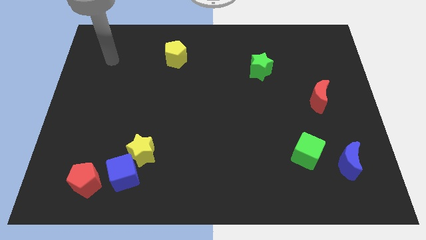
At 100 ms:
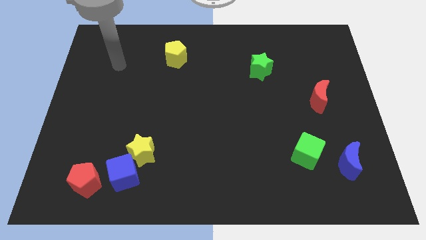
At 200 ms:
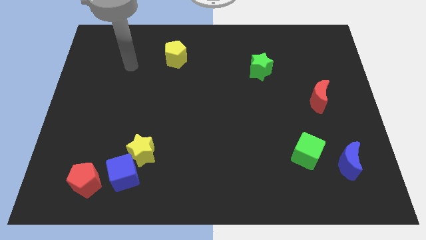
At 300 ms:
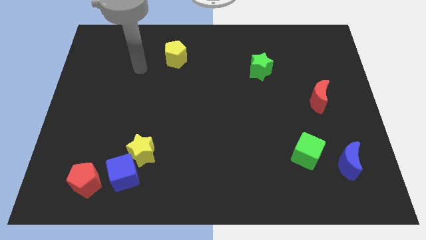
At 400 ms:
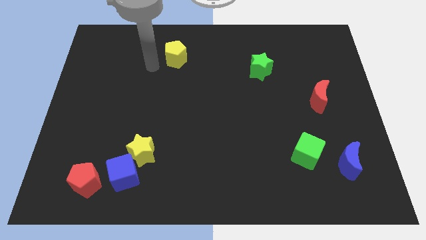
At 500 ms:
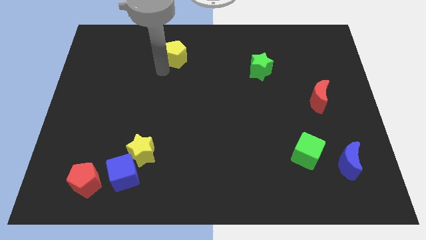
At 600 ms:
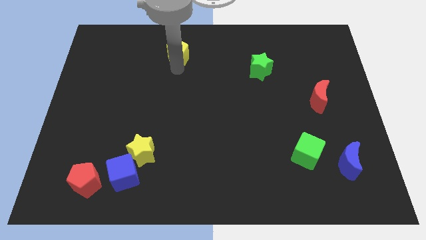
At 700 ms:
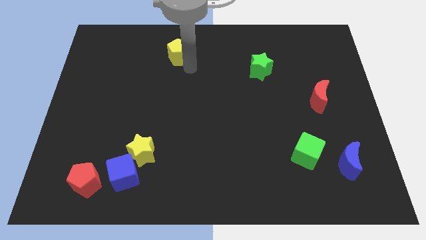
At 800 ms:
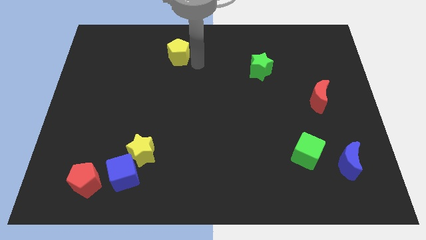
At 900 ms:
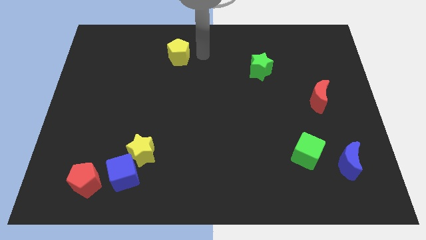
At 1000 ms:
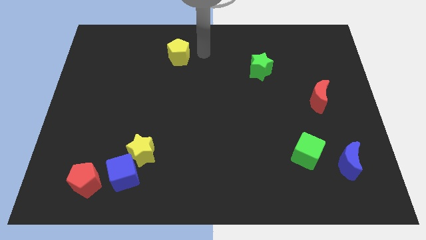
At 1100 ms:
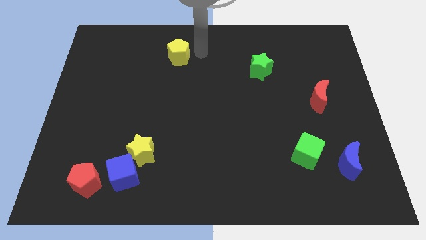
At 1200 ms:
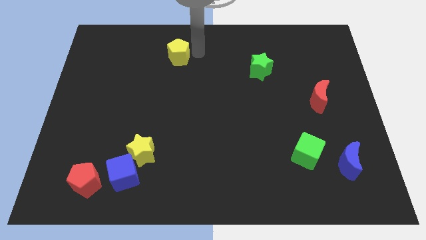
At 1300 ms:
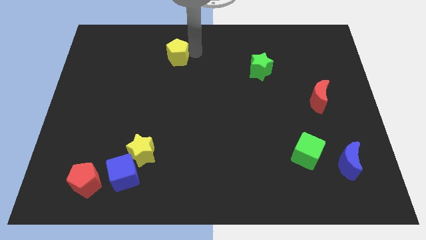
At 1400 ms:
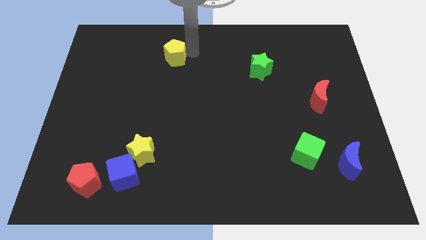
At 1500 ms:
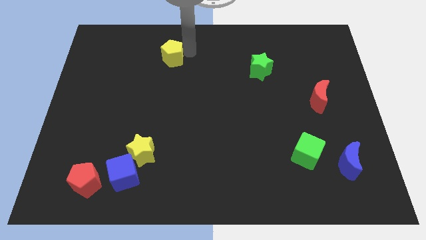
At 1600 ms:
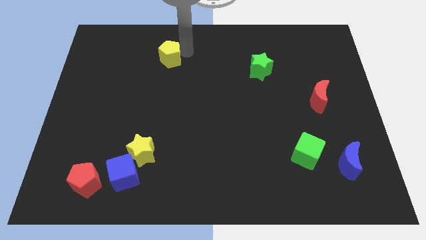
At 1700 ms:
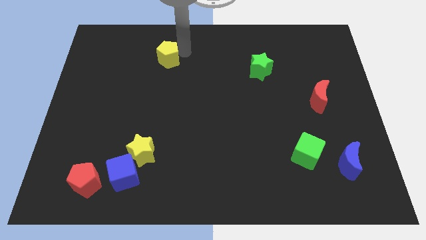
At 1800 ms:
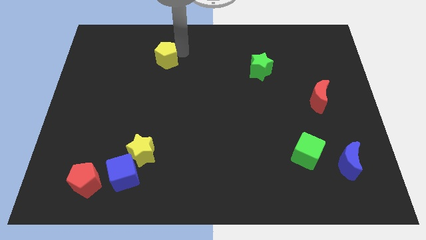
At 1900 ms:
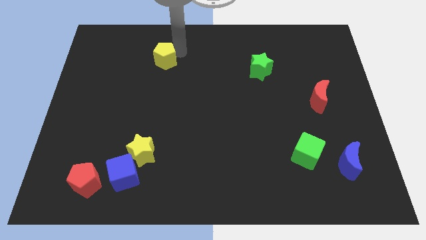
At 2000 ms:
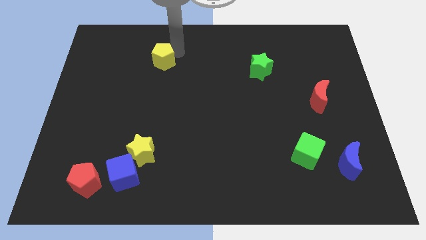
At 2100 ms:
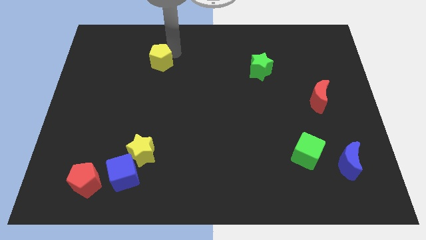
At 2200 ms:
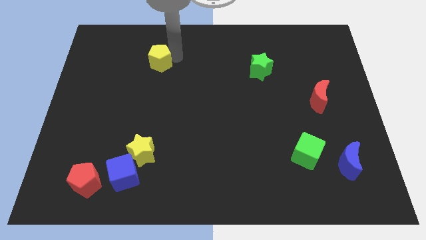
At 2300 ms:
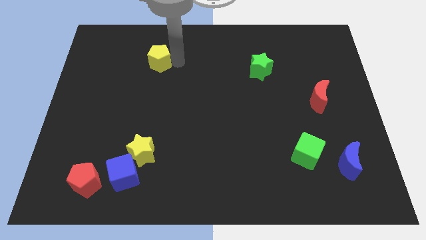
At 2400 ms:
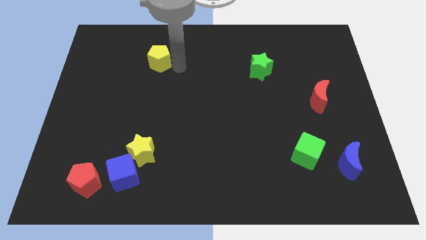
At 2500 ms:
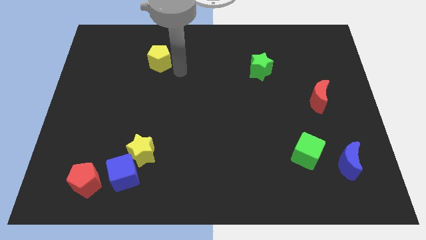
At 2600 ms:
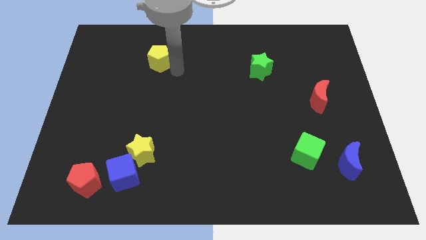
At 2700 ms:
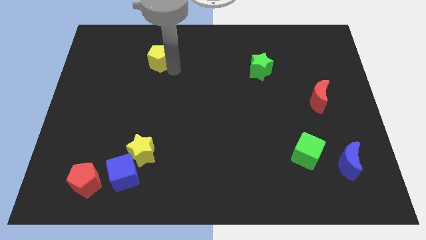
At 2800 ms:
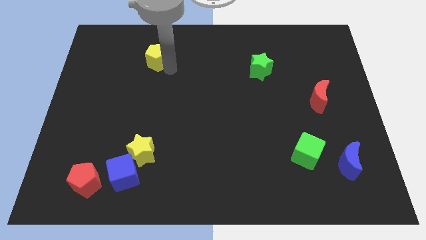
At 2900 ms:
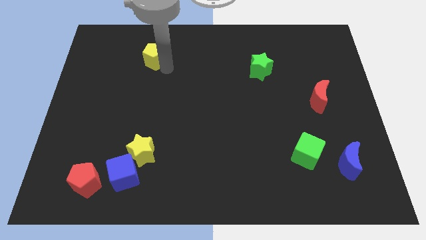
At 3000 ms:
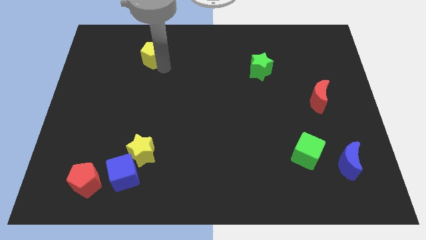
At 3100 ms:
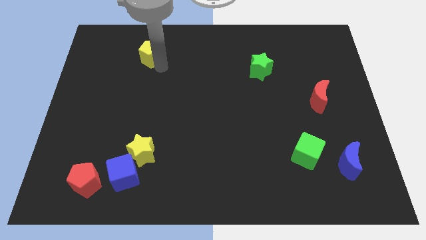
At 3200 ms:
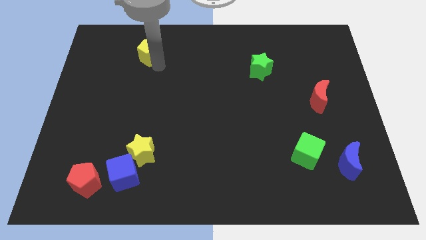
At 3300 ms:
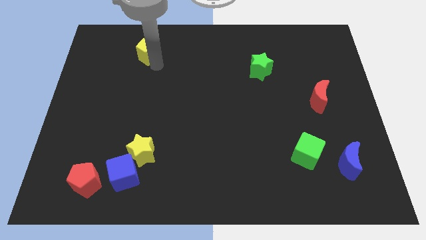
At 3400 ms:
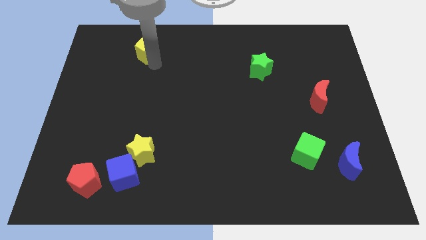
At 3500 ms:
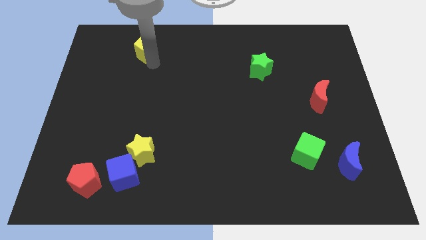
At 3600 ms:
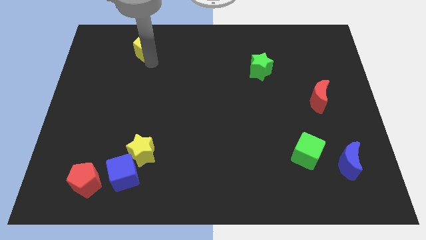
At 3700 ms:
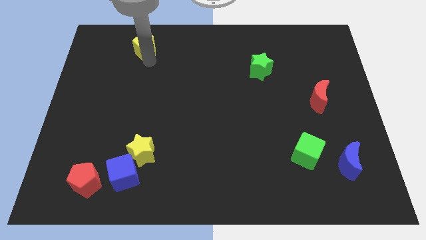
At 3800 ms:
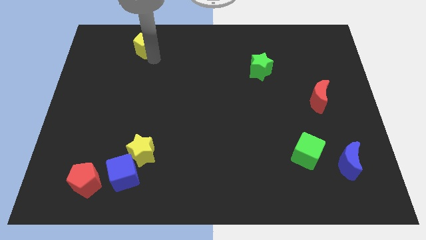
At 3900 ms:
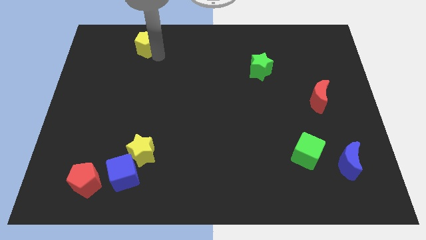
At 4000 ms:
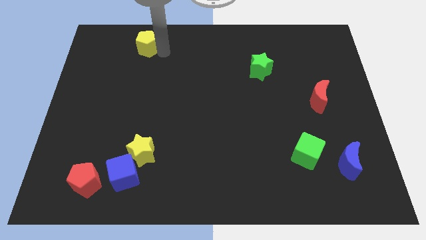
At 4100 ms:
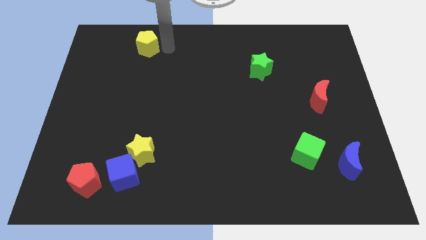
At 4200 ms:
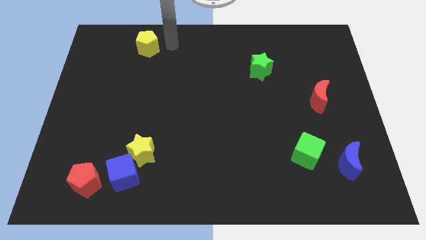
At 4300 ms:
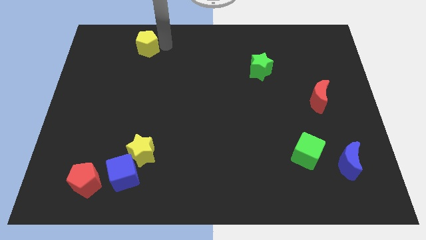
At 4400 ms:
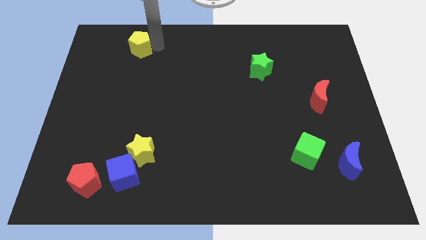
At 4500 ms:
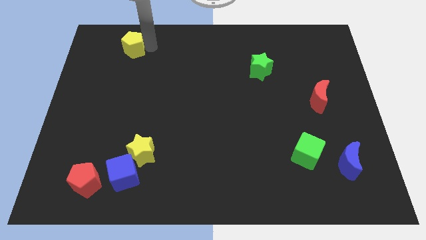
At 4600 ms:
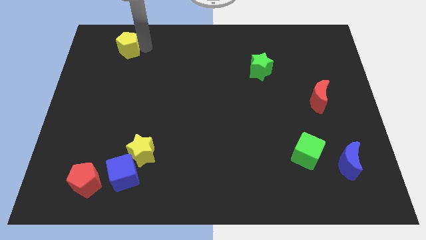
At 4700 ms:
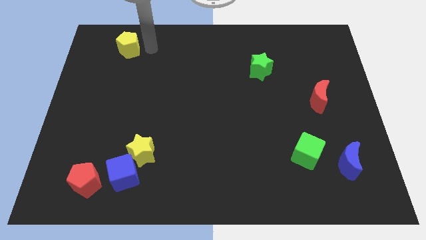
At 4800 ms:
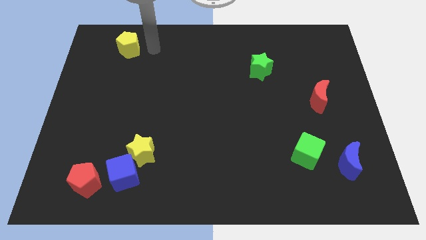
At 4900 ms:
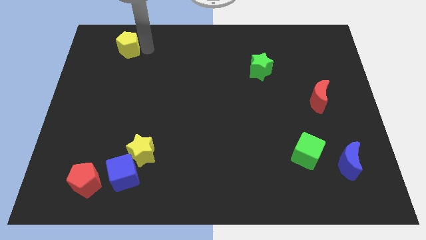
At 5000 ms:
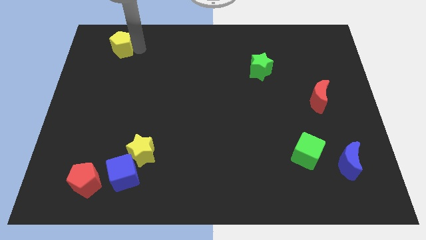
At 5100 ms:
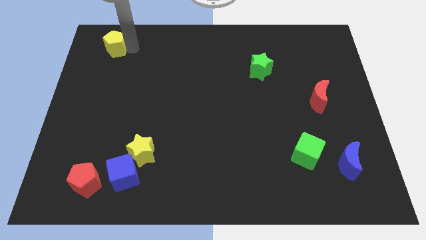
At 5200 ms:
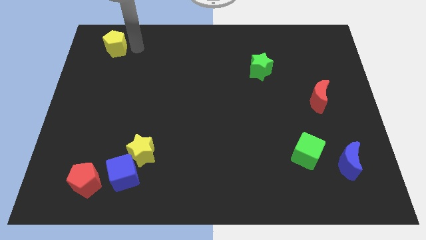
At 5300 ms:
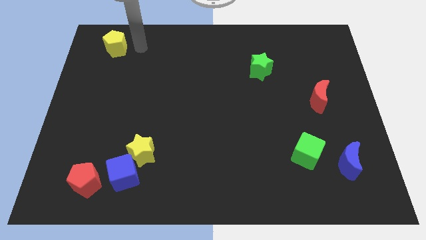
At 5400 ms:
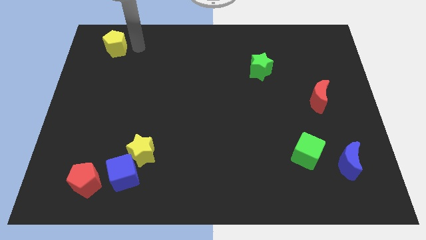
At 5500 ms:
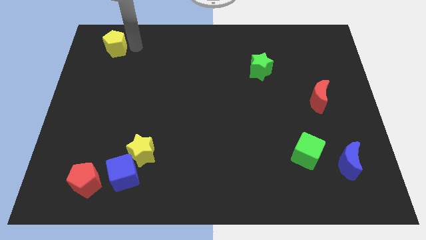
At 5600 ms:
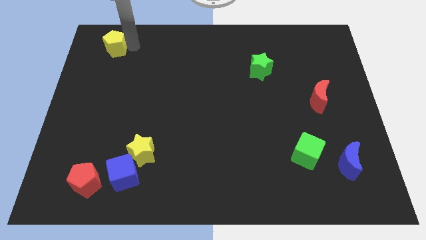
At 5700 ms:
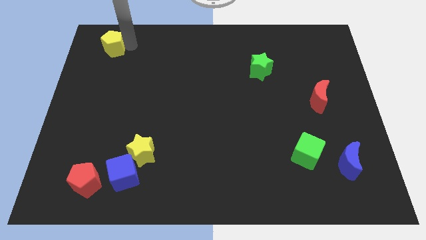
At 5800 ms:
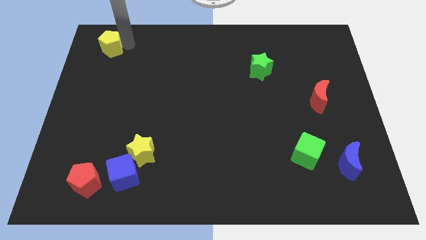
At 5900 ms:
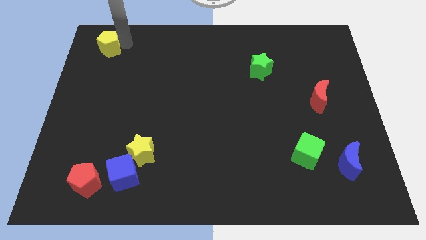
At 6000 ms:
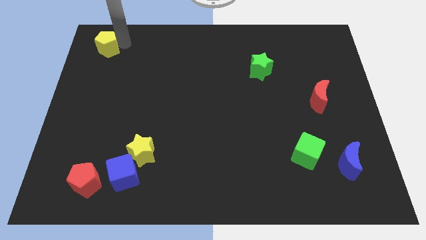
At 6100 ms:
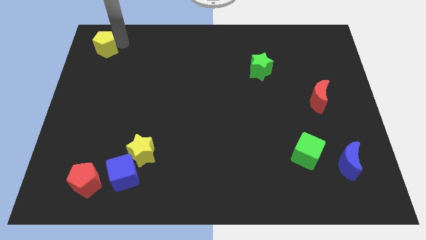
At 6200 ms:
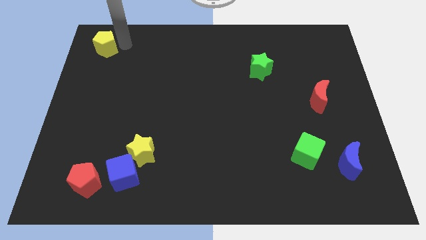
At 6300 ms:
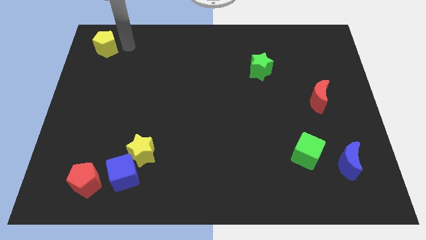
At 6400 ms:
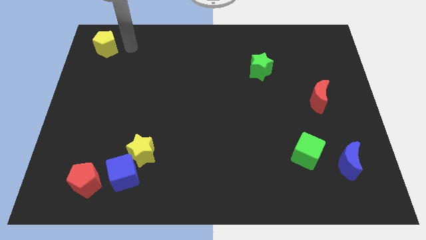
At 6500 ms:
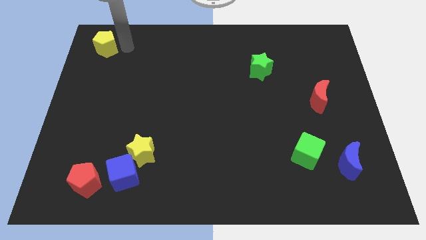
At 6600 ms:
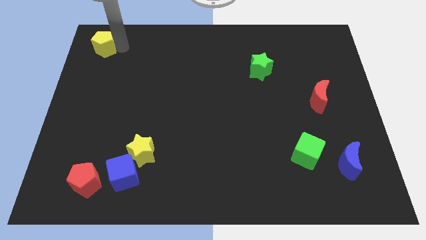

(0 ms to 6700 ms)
slide the yellow pentagon to the top left of the board
